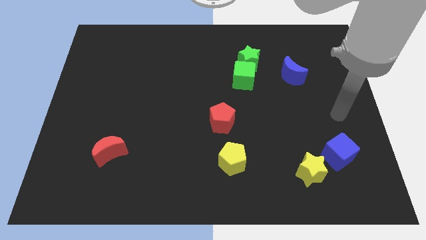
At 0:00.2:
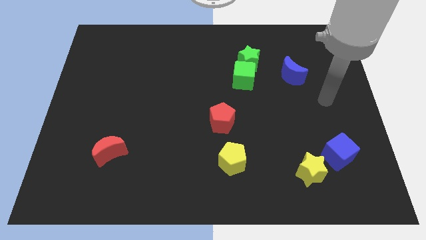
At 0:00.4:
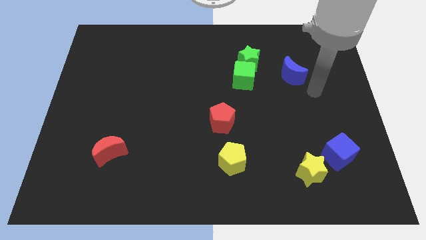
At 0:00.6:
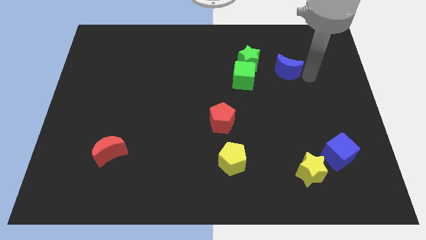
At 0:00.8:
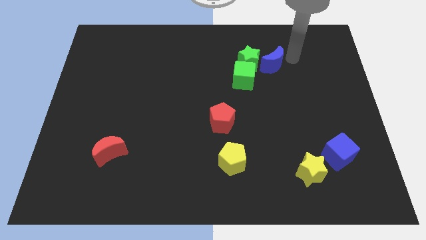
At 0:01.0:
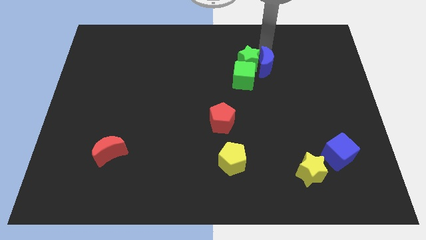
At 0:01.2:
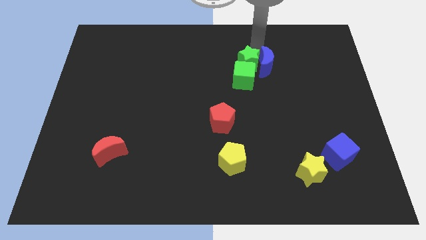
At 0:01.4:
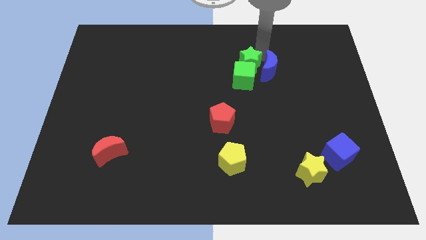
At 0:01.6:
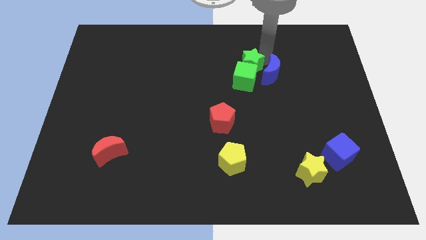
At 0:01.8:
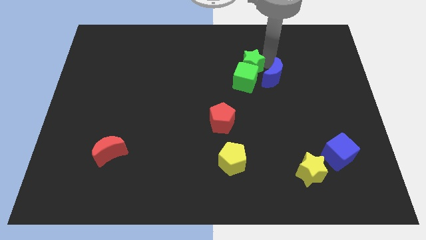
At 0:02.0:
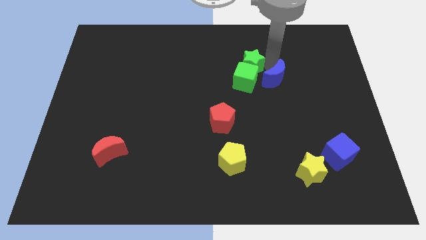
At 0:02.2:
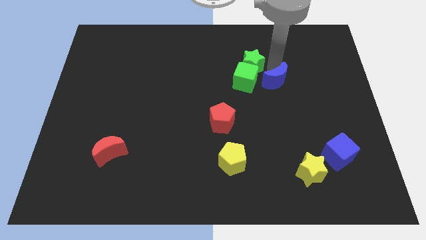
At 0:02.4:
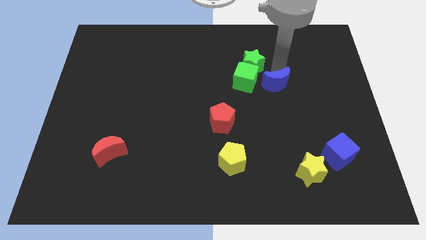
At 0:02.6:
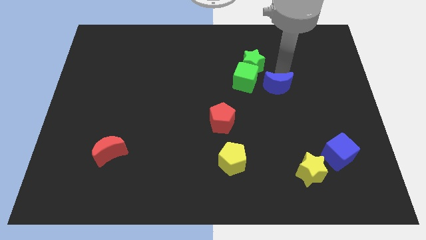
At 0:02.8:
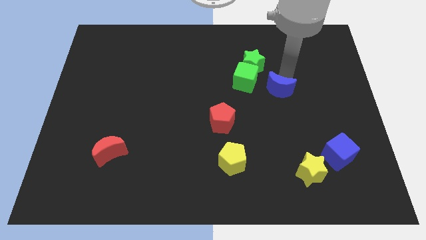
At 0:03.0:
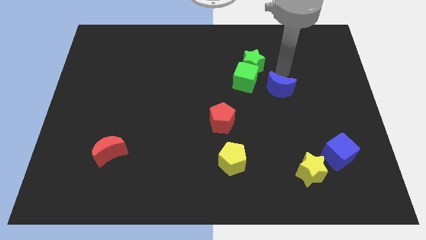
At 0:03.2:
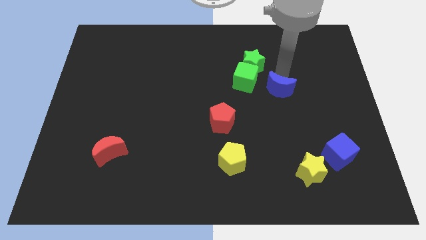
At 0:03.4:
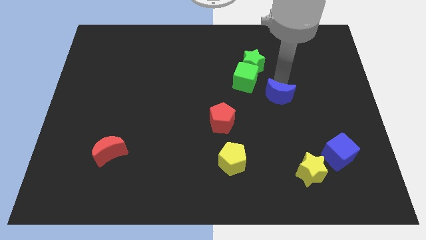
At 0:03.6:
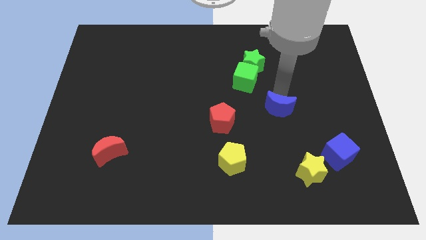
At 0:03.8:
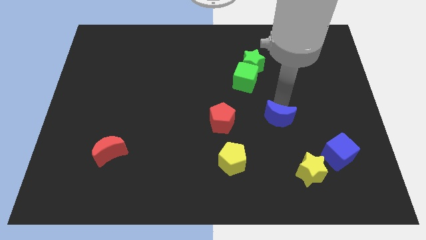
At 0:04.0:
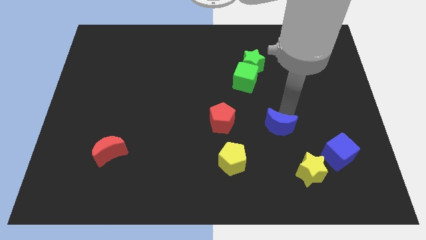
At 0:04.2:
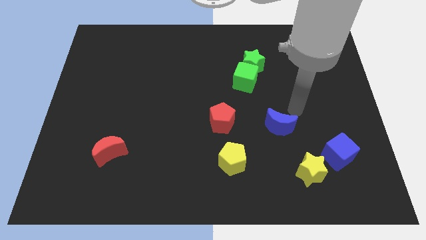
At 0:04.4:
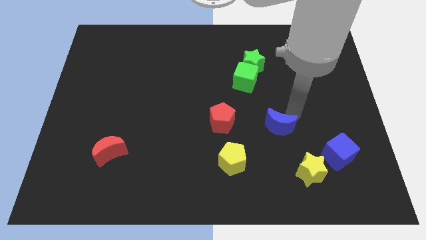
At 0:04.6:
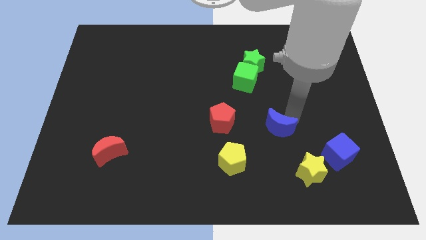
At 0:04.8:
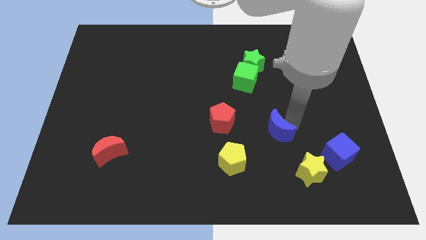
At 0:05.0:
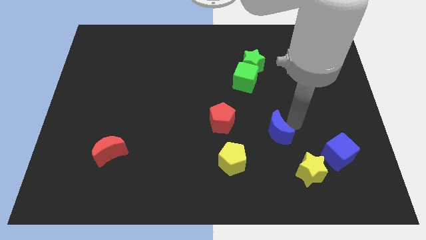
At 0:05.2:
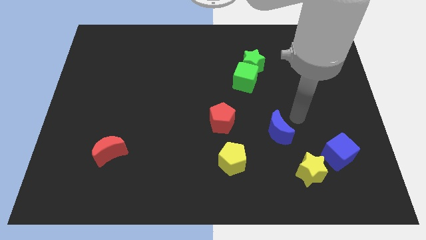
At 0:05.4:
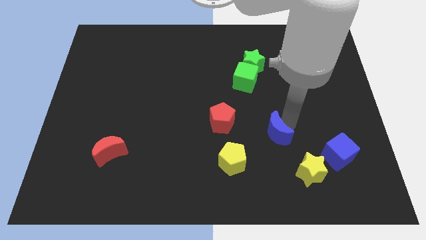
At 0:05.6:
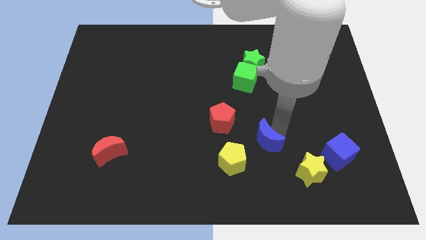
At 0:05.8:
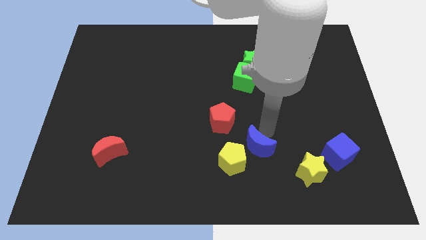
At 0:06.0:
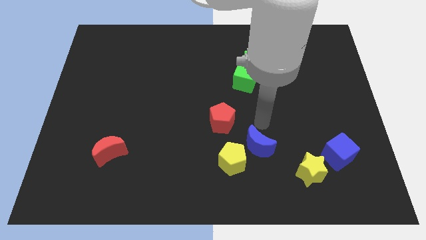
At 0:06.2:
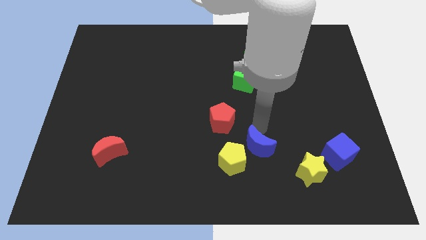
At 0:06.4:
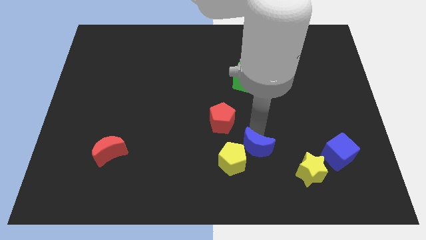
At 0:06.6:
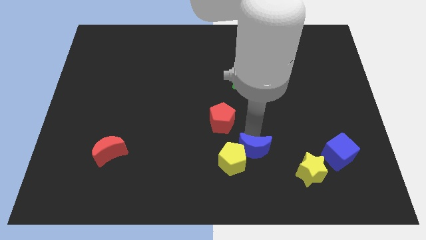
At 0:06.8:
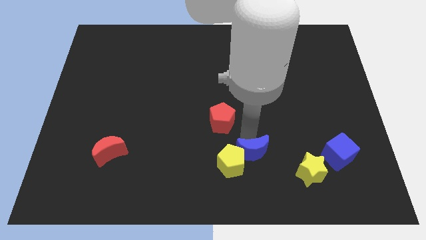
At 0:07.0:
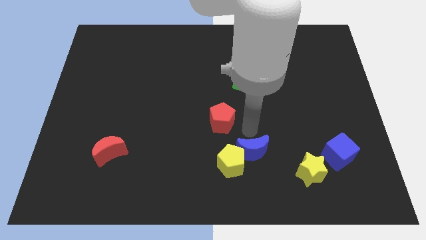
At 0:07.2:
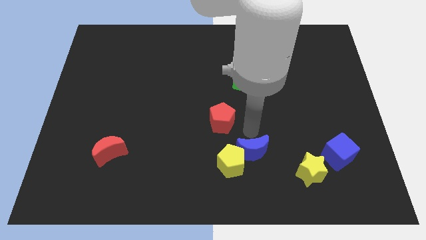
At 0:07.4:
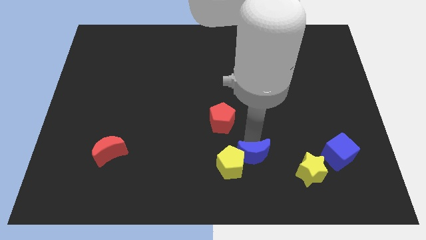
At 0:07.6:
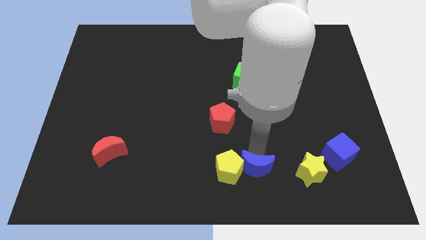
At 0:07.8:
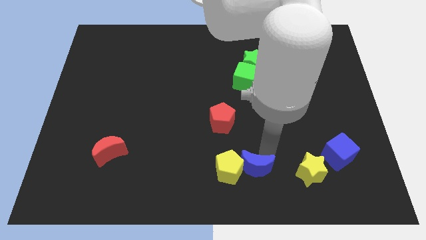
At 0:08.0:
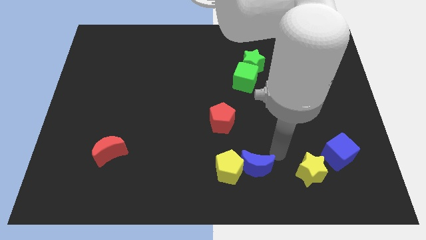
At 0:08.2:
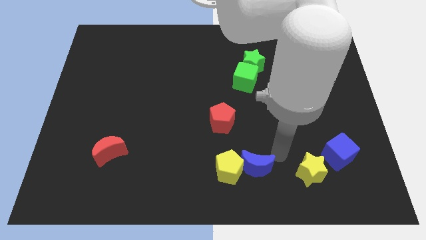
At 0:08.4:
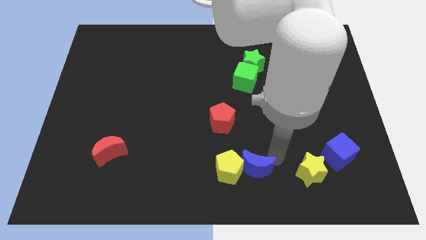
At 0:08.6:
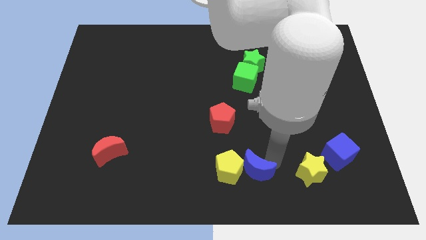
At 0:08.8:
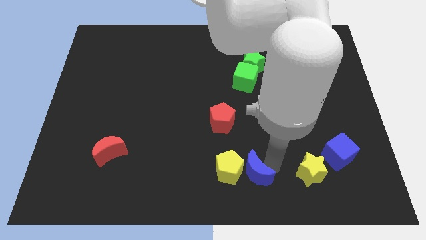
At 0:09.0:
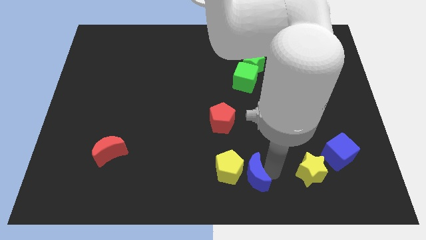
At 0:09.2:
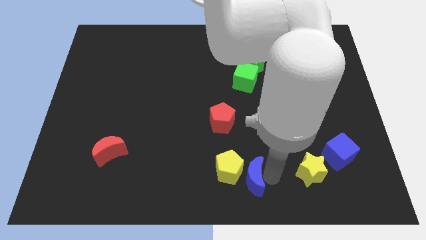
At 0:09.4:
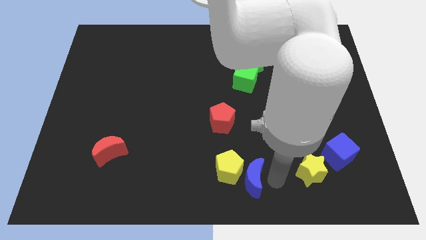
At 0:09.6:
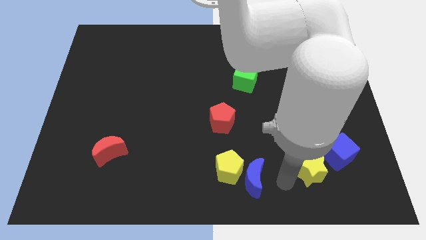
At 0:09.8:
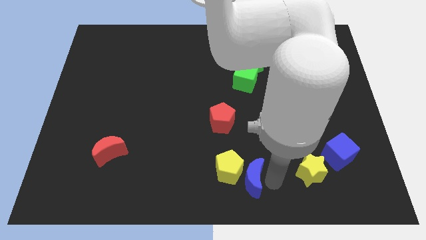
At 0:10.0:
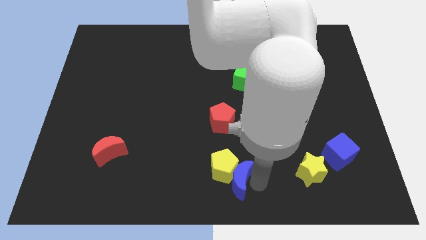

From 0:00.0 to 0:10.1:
put the blue moon below the red pentagon

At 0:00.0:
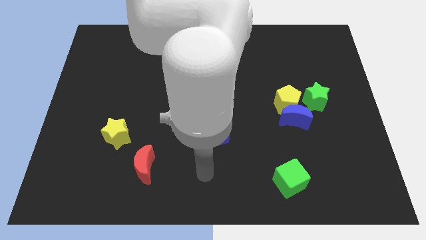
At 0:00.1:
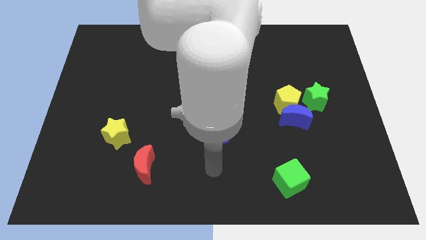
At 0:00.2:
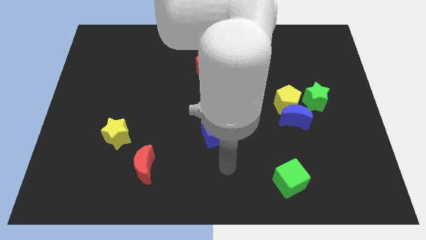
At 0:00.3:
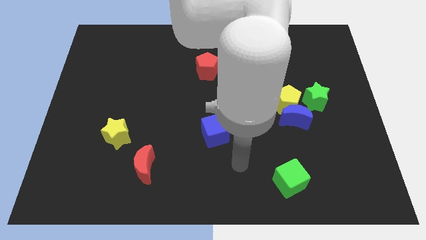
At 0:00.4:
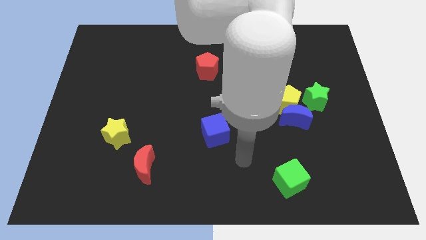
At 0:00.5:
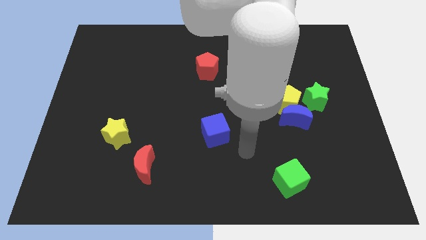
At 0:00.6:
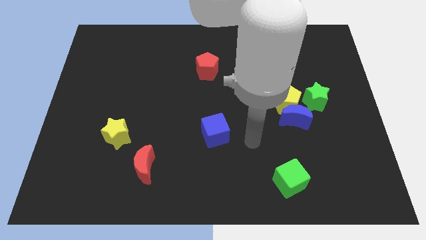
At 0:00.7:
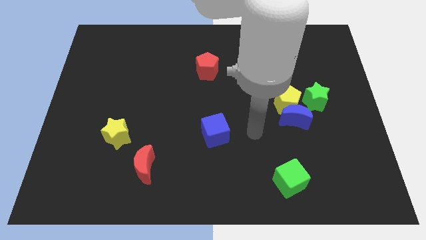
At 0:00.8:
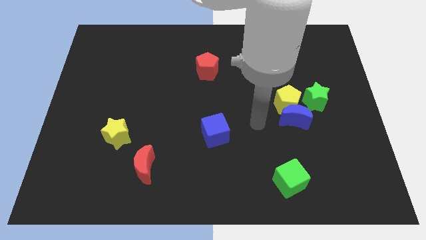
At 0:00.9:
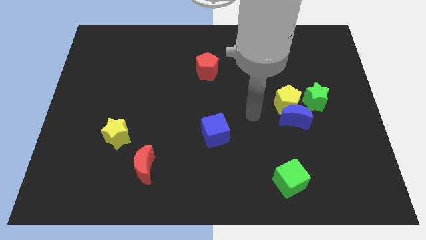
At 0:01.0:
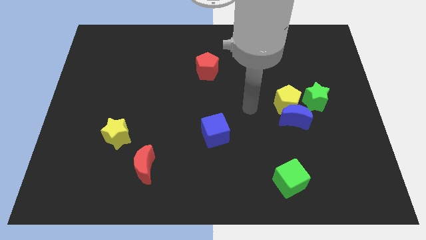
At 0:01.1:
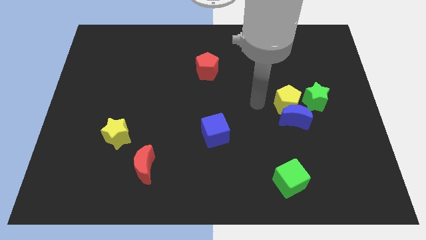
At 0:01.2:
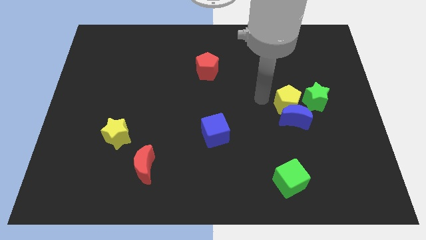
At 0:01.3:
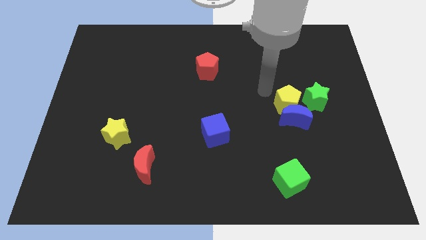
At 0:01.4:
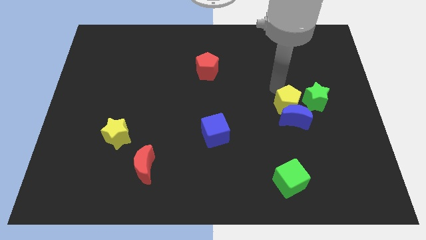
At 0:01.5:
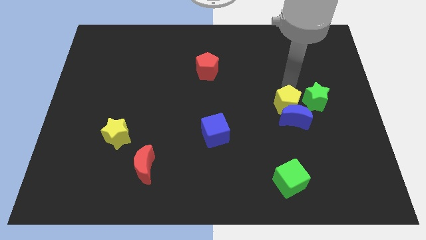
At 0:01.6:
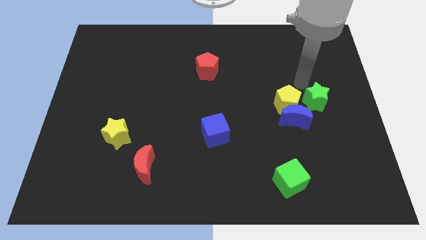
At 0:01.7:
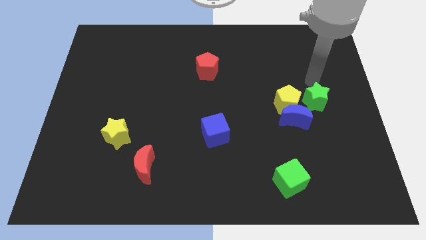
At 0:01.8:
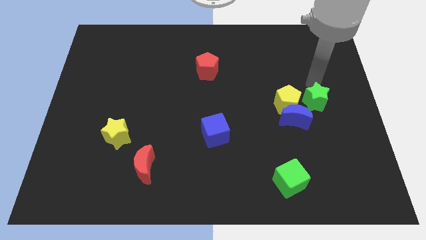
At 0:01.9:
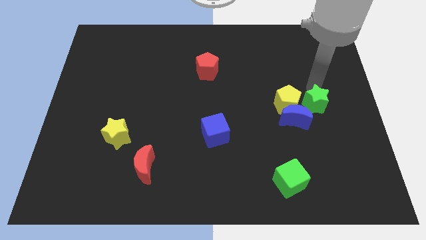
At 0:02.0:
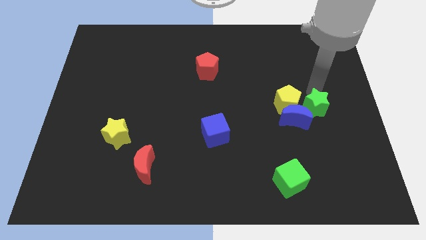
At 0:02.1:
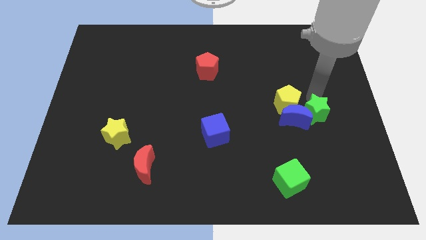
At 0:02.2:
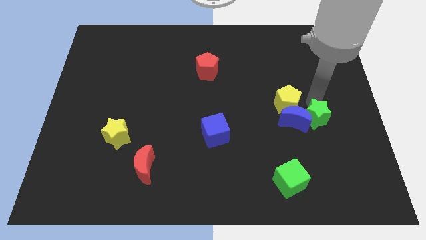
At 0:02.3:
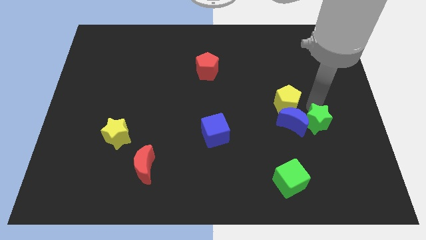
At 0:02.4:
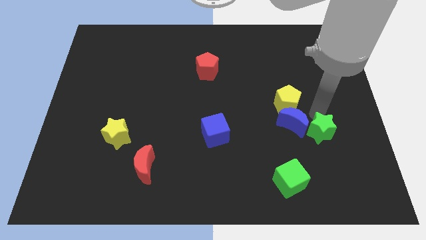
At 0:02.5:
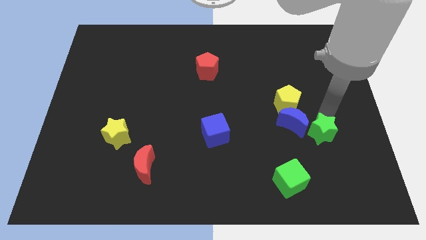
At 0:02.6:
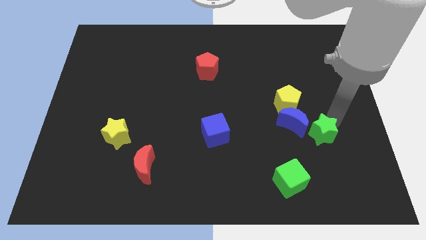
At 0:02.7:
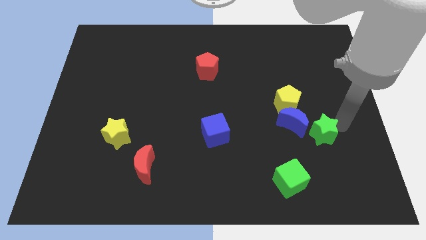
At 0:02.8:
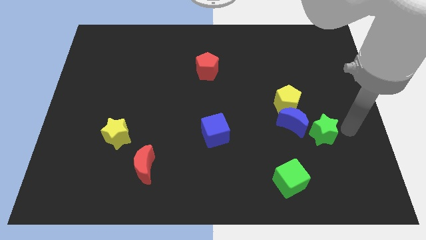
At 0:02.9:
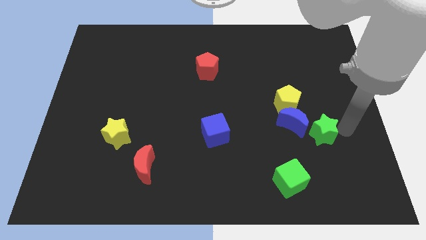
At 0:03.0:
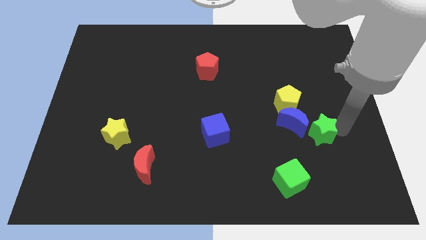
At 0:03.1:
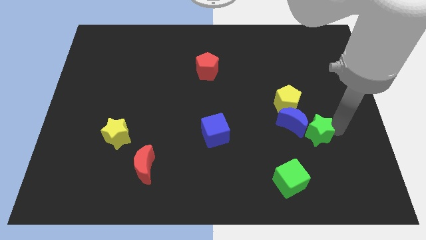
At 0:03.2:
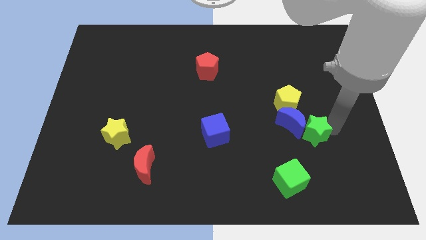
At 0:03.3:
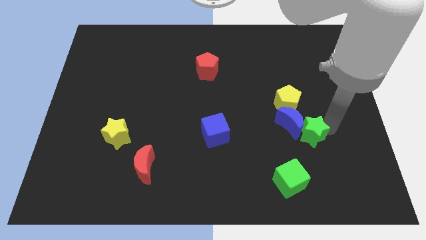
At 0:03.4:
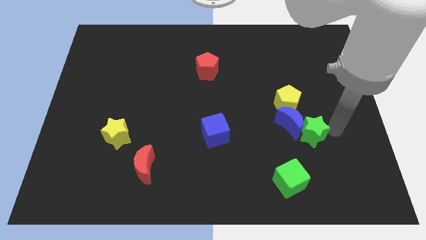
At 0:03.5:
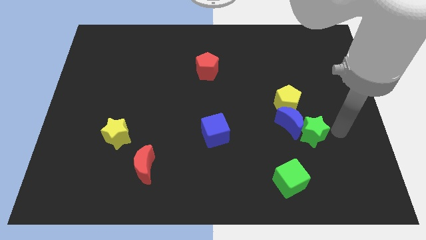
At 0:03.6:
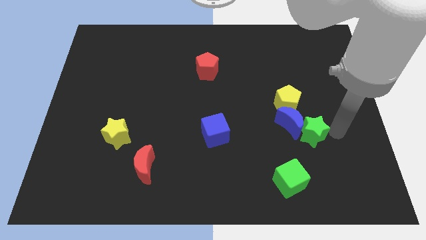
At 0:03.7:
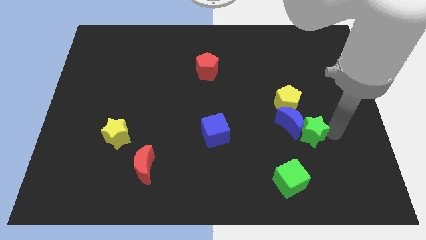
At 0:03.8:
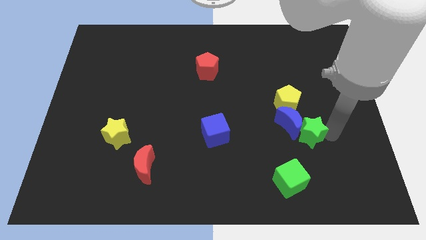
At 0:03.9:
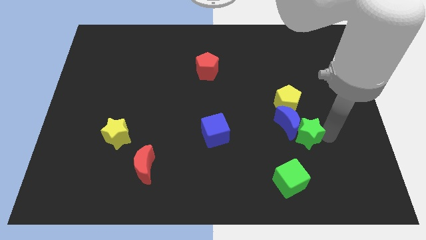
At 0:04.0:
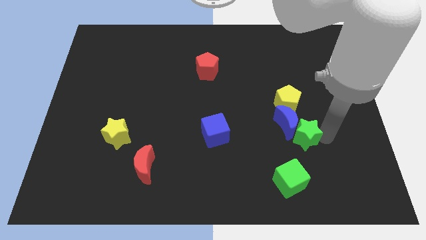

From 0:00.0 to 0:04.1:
push the green star to the top side of the green cube
